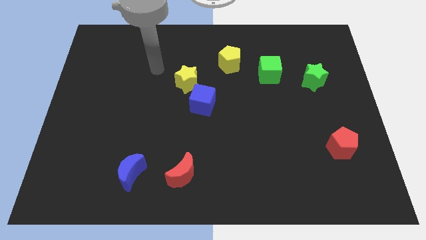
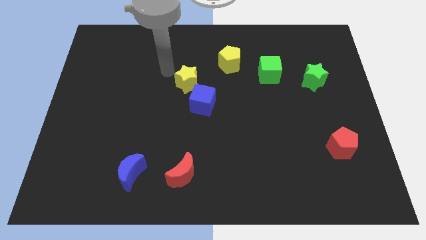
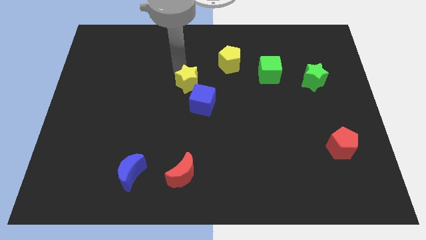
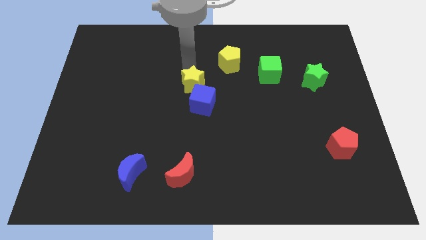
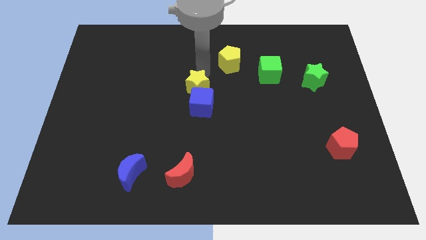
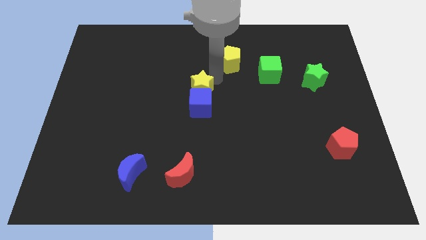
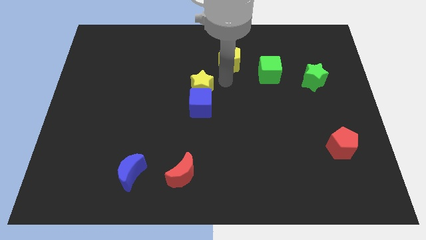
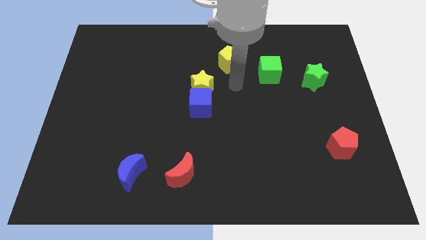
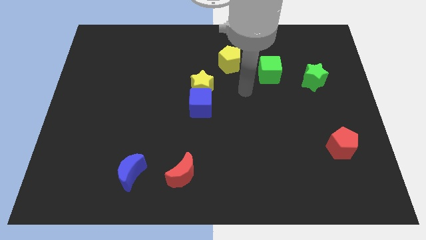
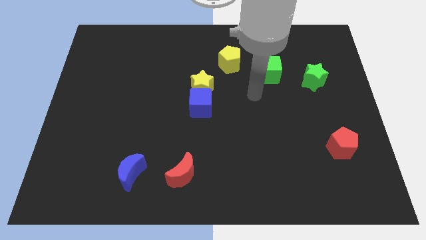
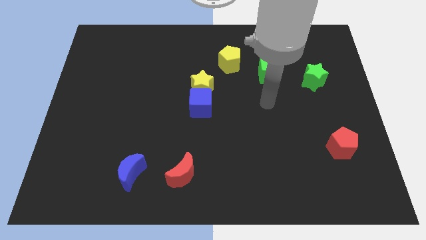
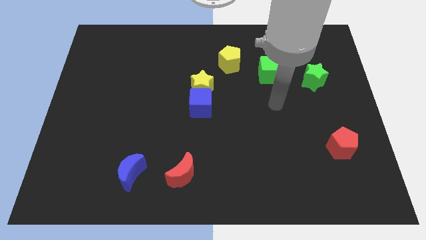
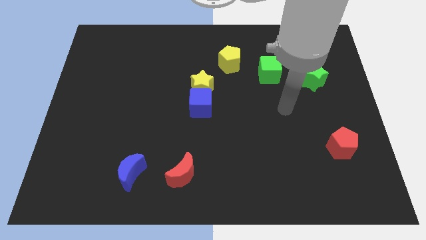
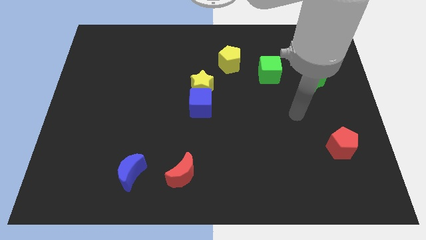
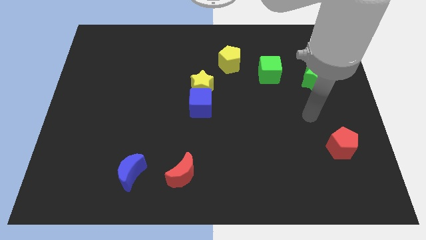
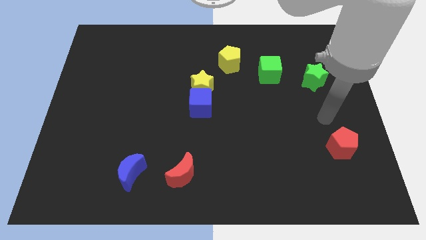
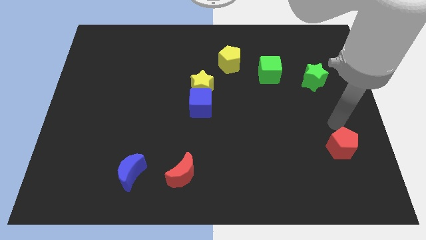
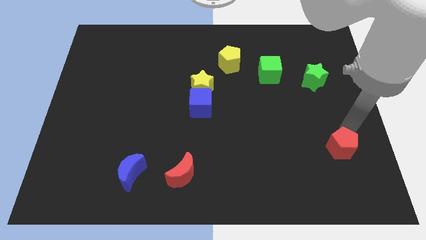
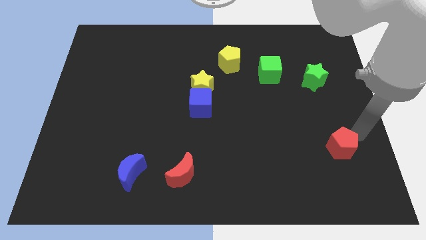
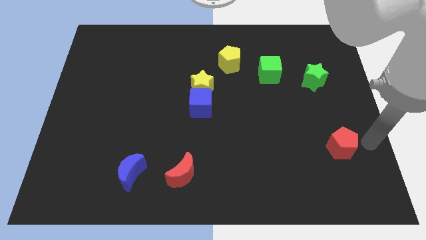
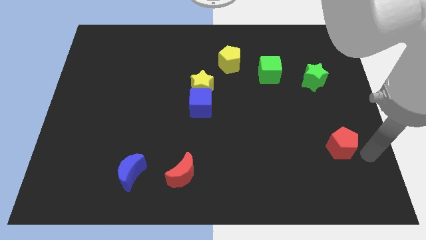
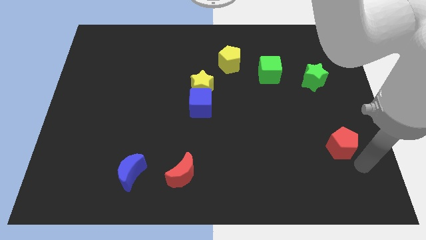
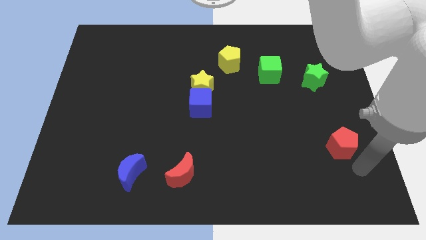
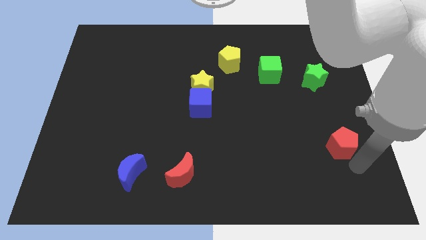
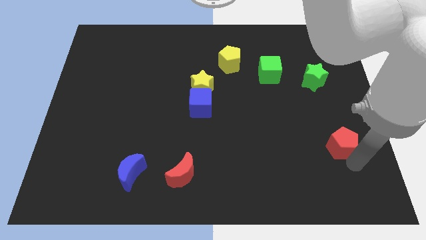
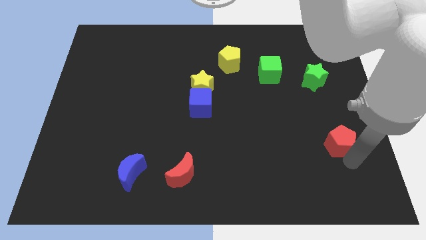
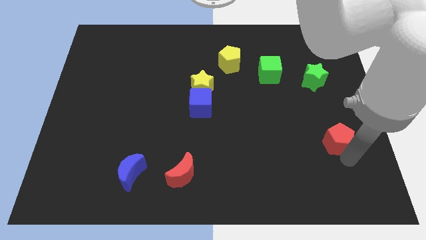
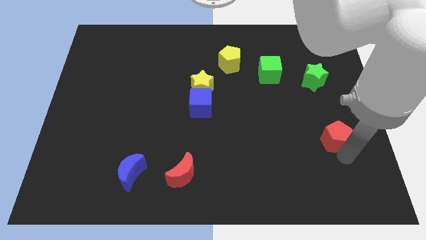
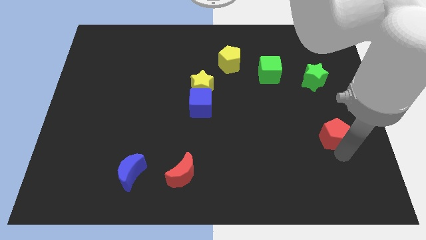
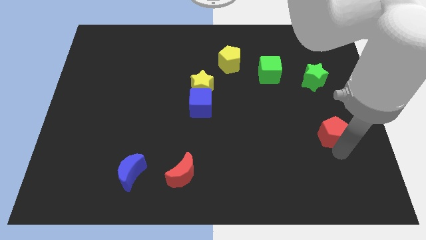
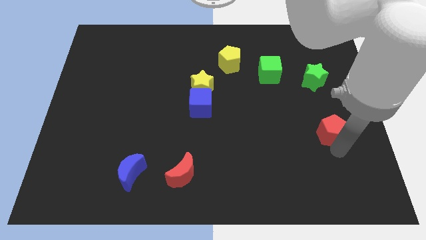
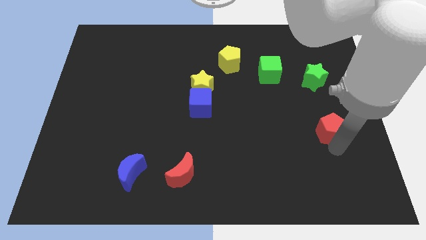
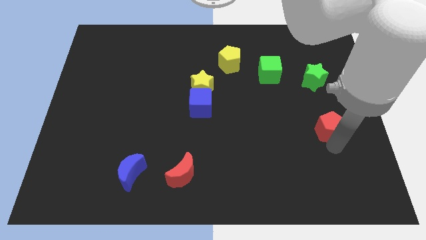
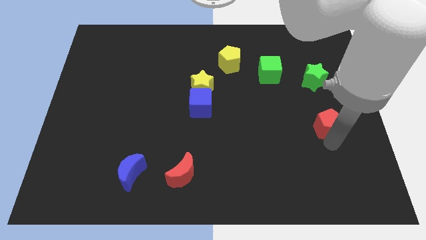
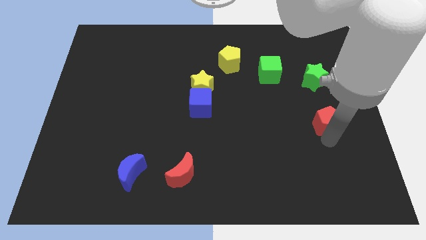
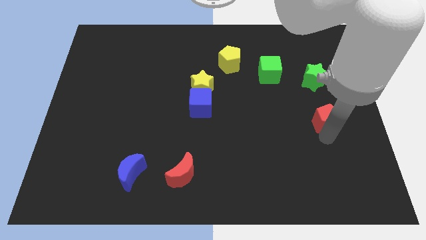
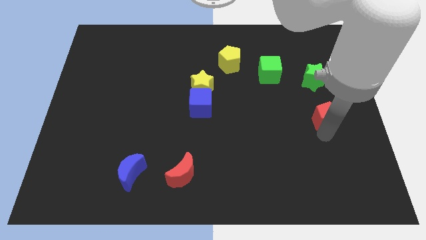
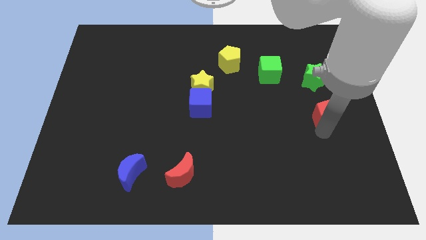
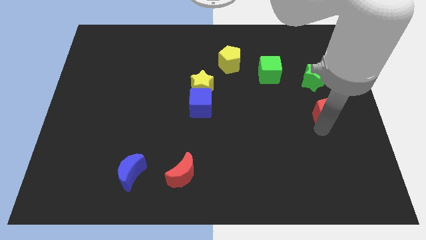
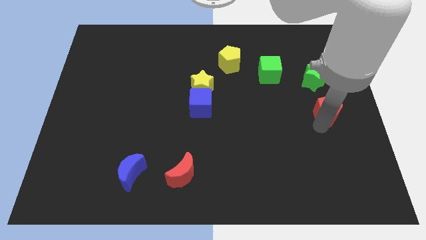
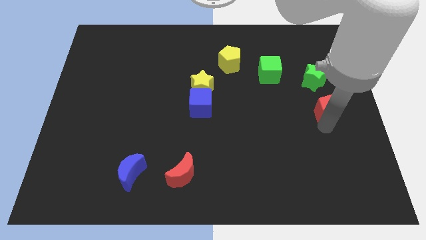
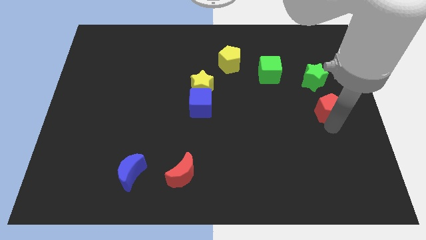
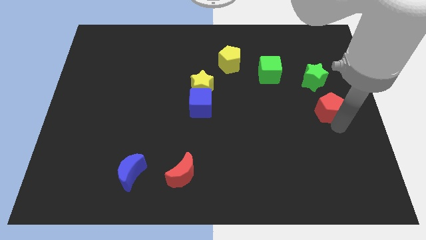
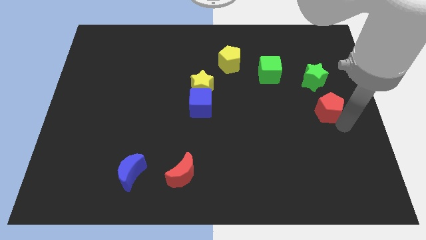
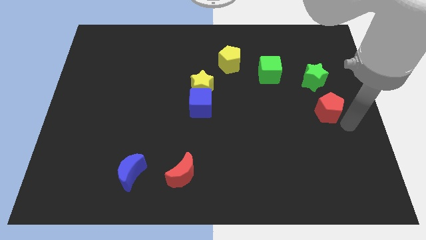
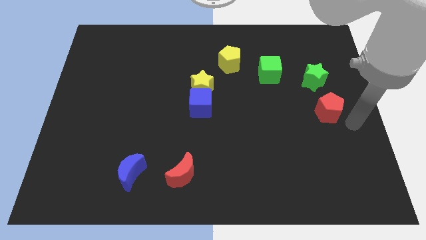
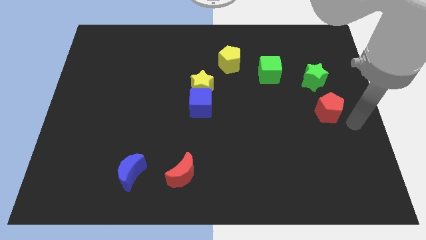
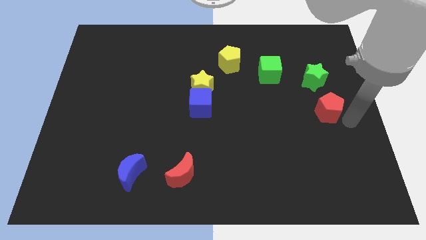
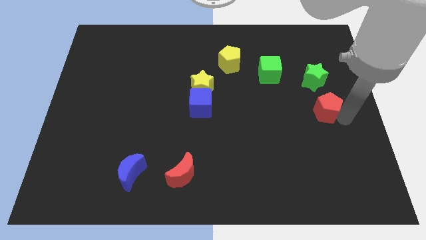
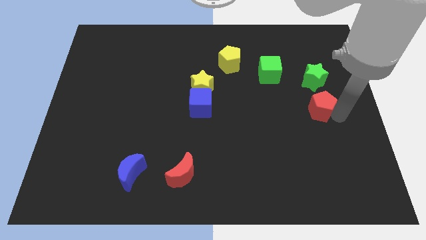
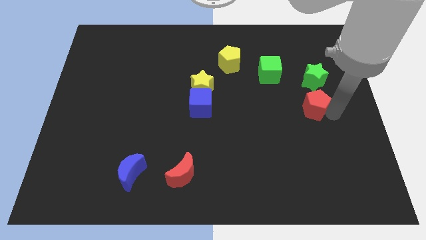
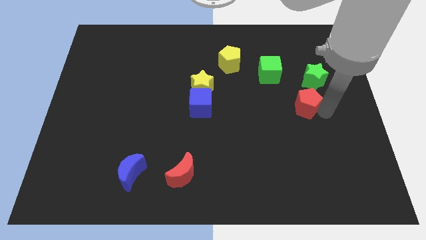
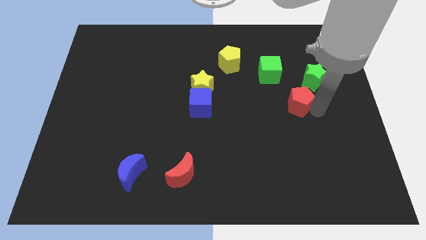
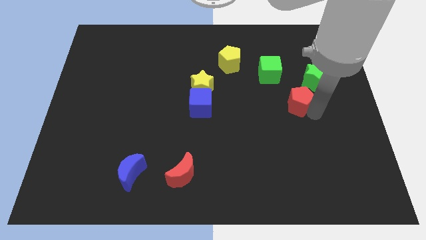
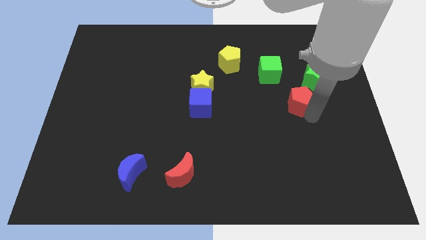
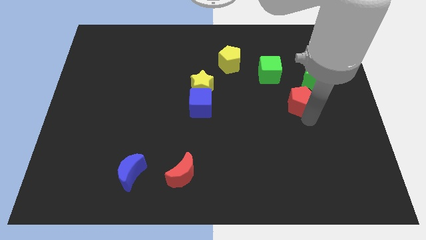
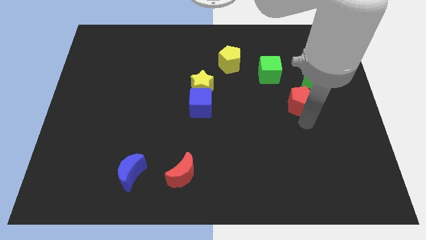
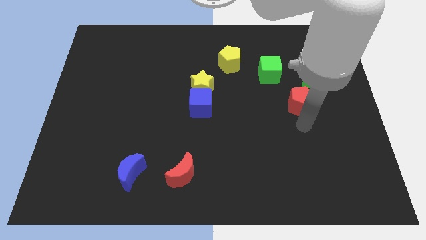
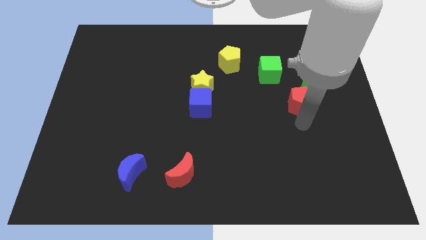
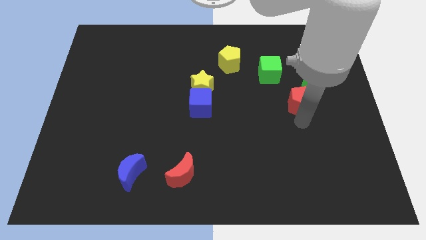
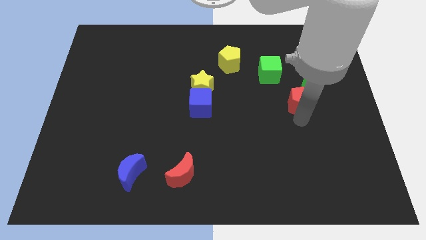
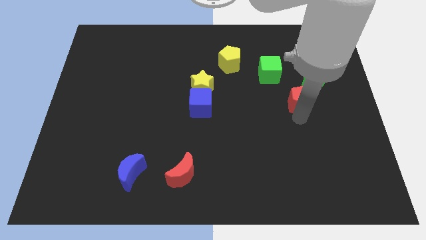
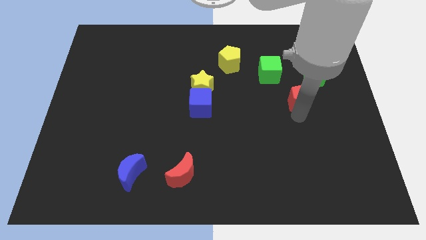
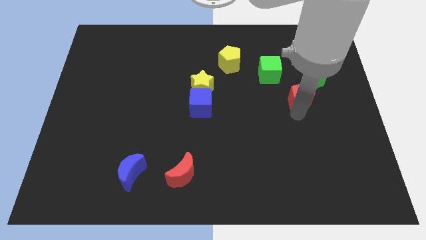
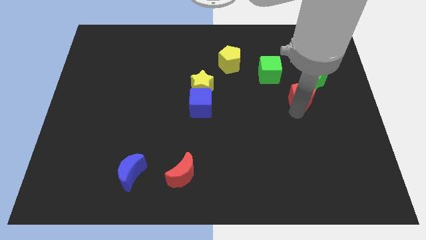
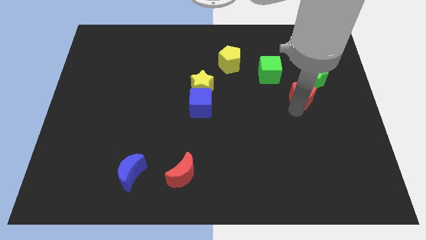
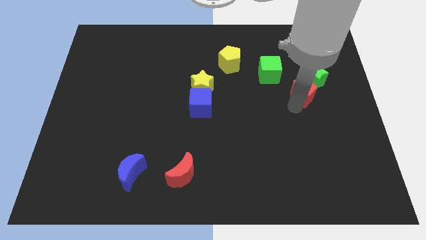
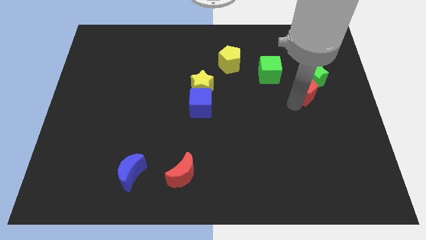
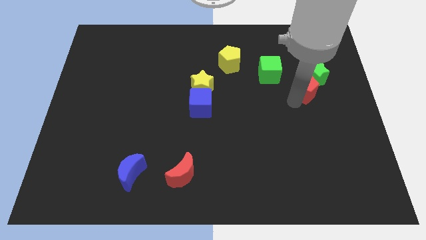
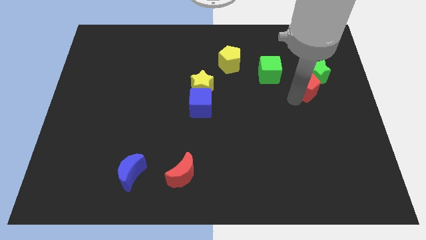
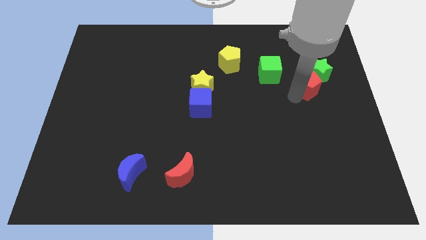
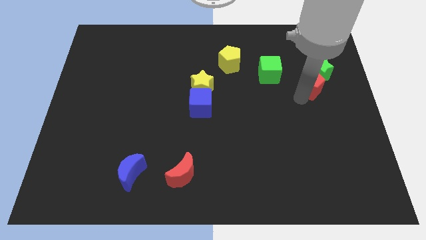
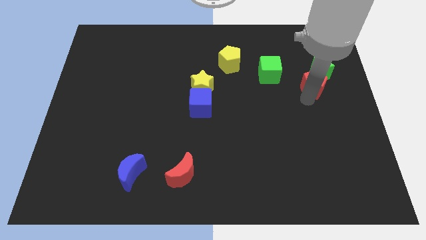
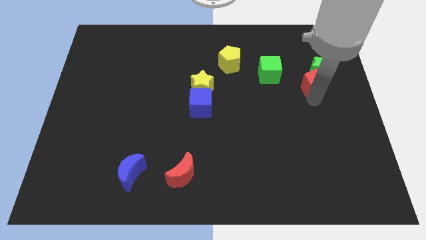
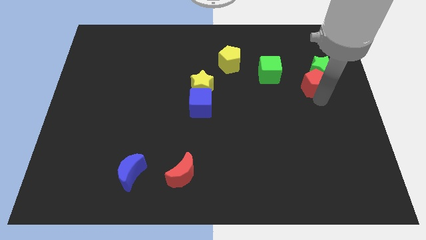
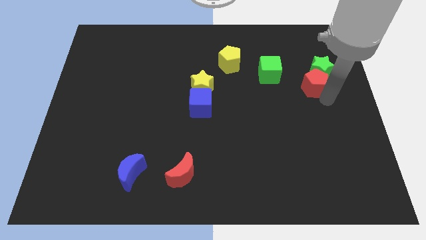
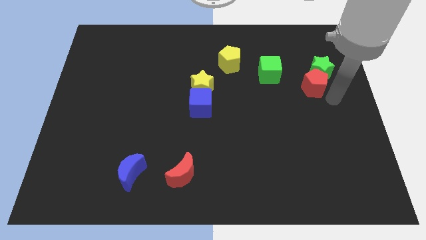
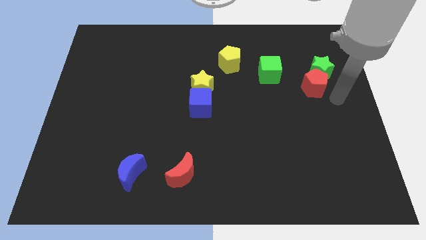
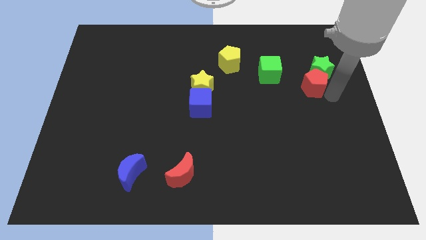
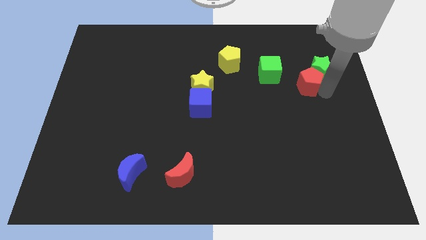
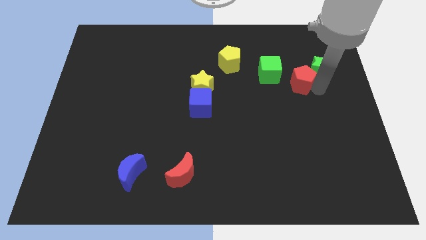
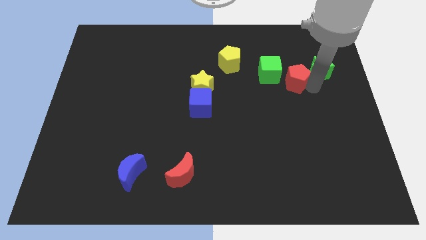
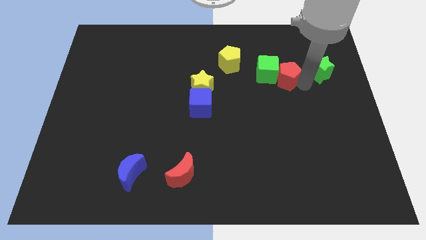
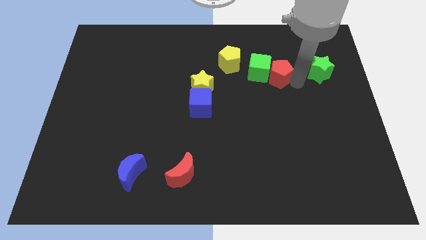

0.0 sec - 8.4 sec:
push the red pentagon just right of the yellow pentagon
